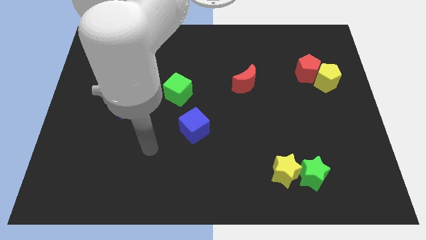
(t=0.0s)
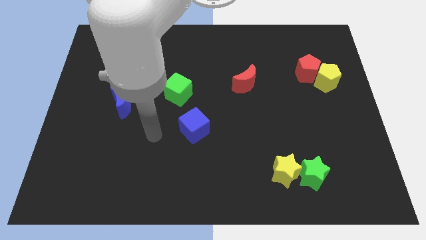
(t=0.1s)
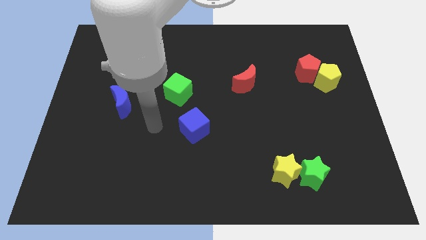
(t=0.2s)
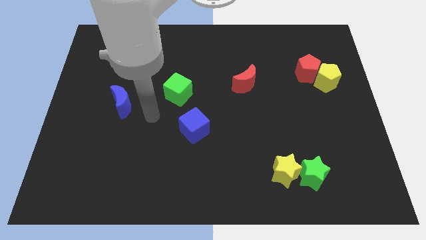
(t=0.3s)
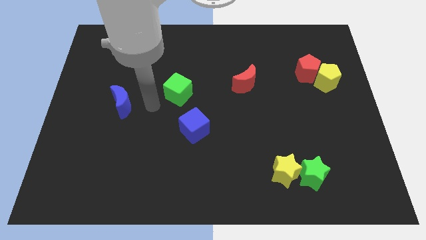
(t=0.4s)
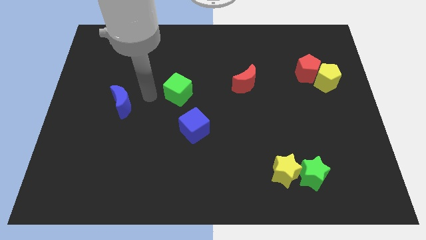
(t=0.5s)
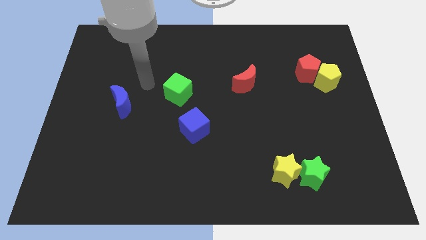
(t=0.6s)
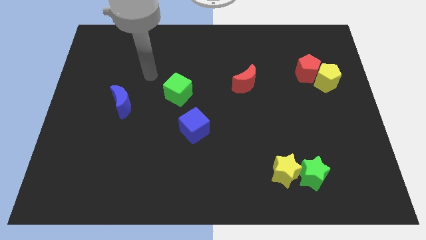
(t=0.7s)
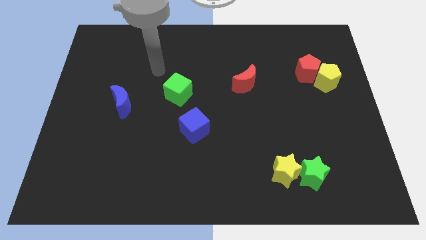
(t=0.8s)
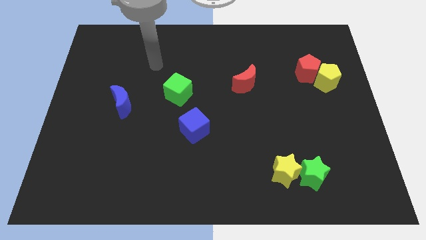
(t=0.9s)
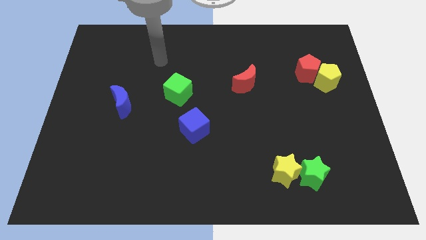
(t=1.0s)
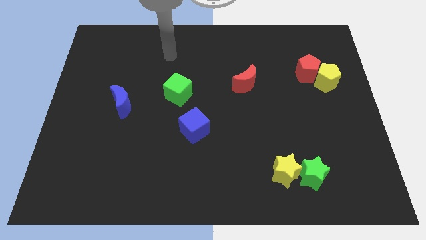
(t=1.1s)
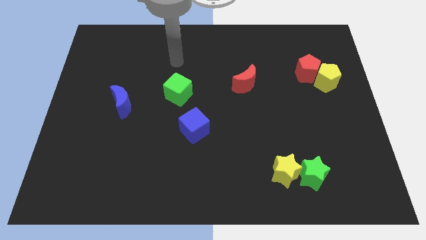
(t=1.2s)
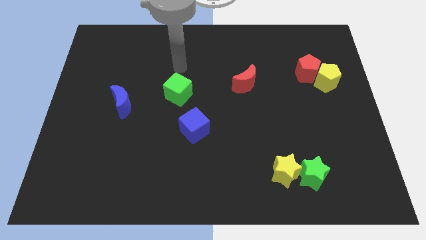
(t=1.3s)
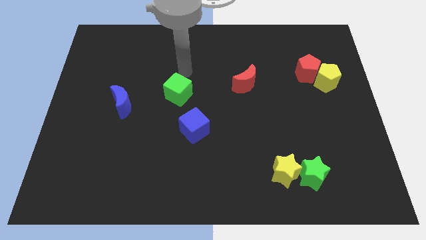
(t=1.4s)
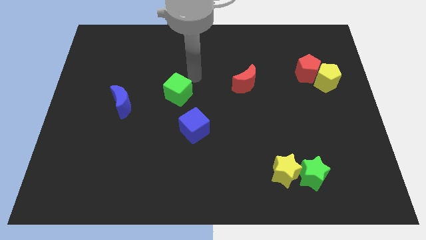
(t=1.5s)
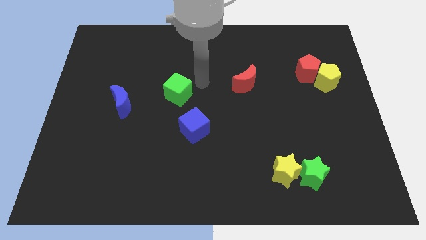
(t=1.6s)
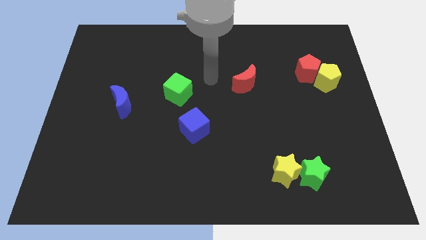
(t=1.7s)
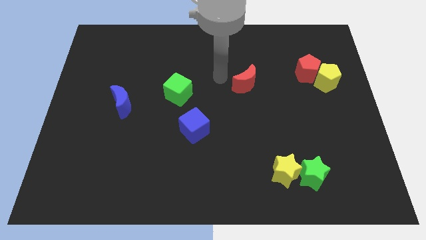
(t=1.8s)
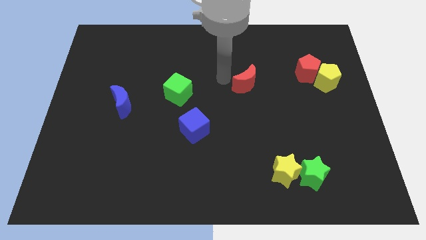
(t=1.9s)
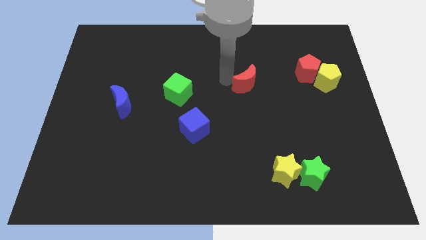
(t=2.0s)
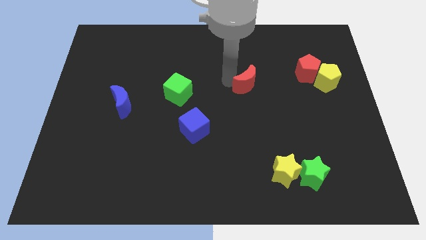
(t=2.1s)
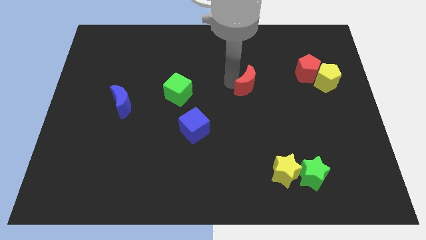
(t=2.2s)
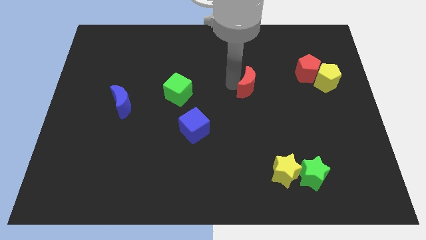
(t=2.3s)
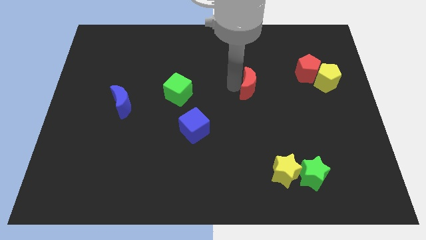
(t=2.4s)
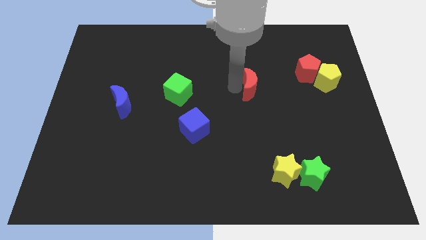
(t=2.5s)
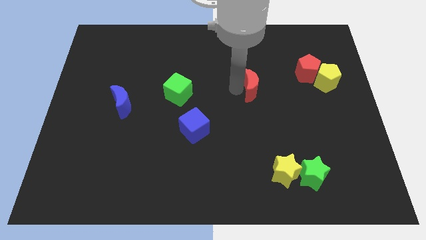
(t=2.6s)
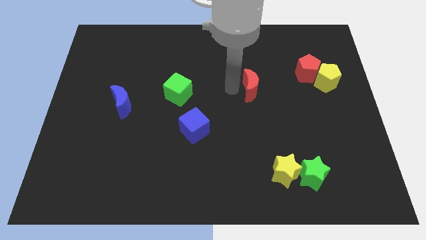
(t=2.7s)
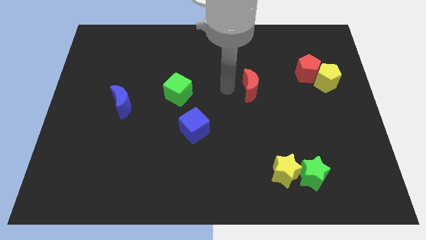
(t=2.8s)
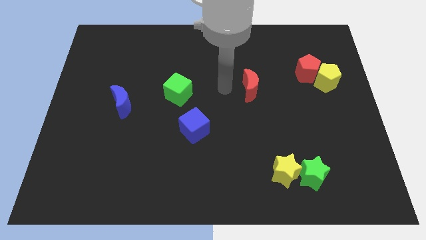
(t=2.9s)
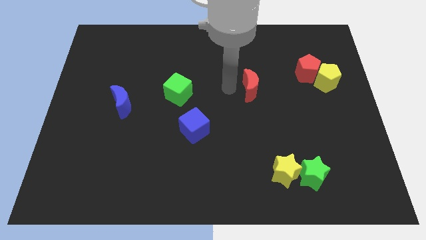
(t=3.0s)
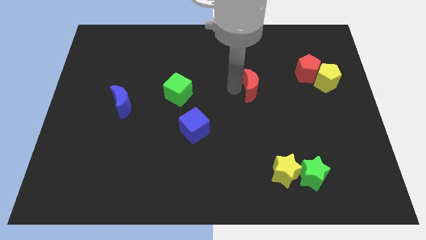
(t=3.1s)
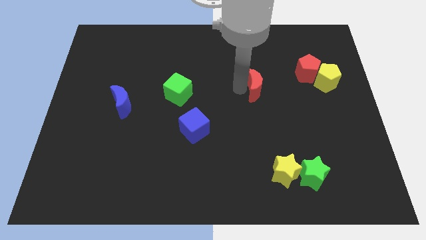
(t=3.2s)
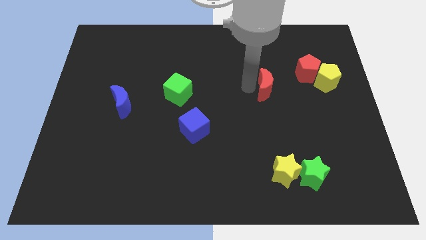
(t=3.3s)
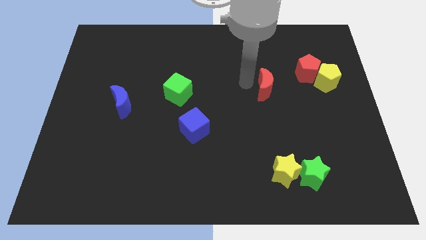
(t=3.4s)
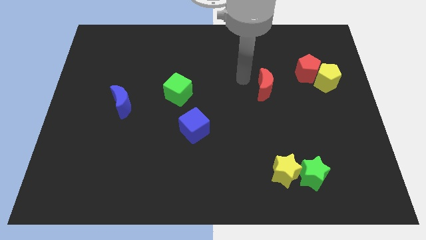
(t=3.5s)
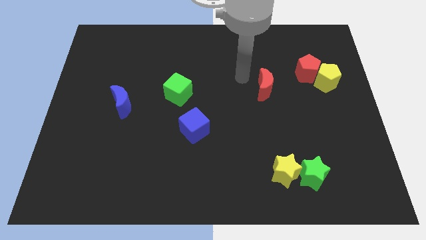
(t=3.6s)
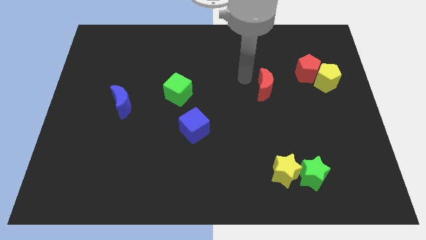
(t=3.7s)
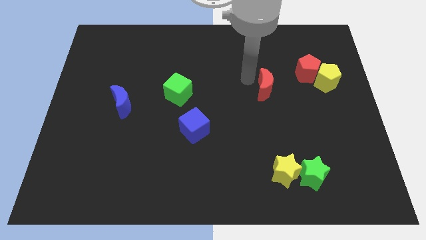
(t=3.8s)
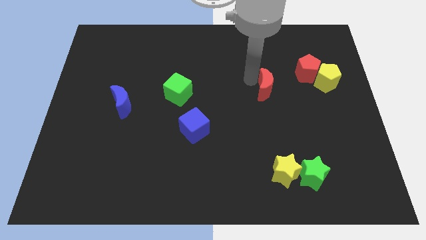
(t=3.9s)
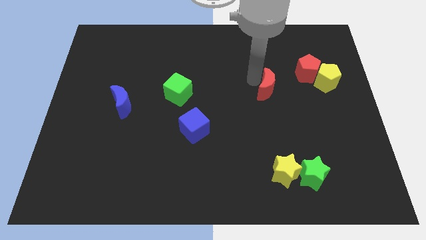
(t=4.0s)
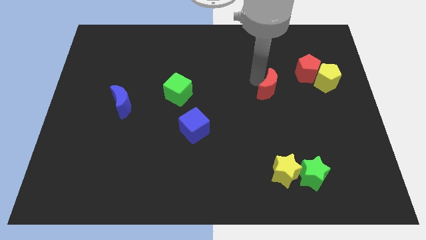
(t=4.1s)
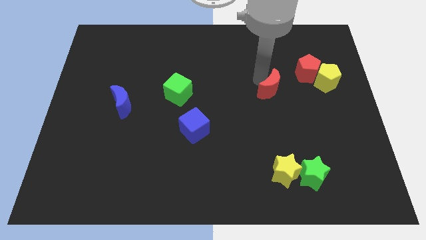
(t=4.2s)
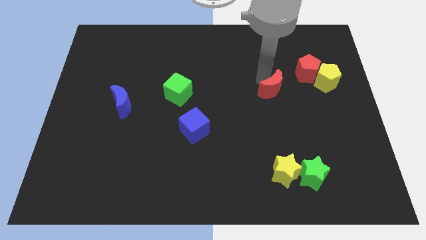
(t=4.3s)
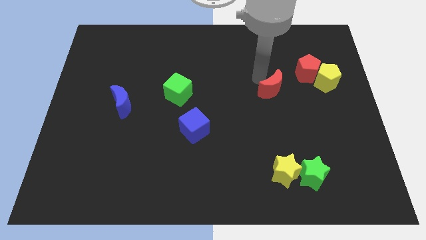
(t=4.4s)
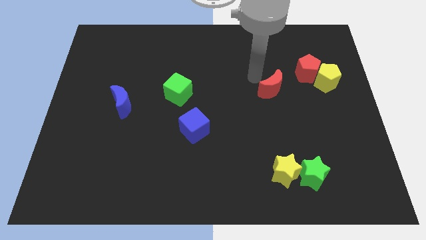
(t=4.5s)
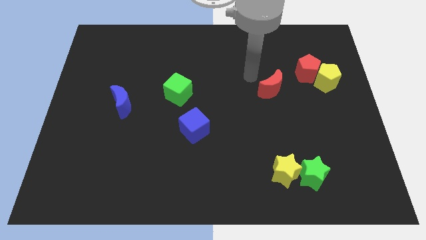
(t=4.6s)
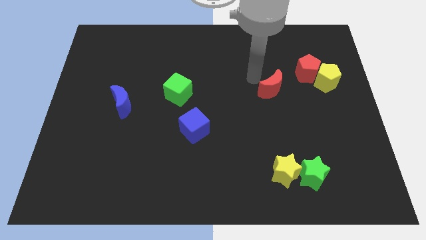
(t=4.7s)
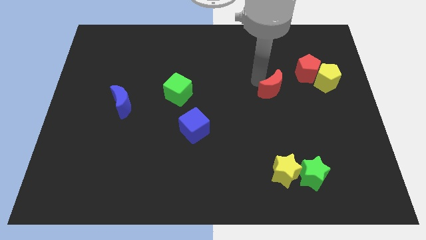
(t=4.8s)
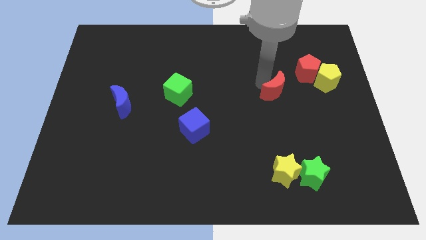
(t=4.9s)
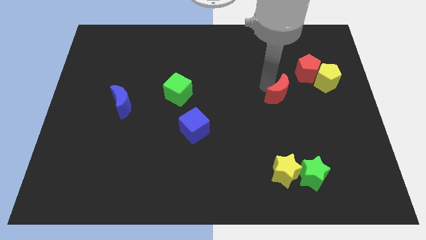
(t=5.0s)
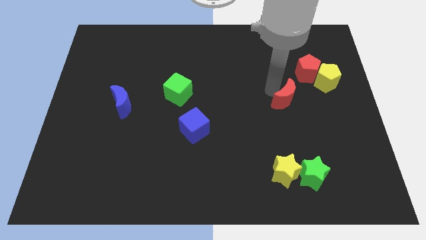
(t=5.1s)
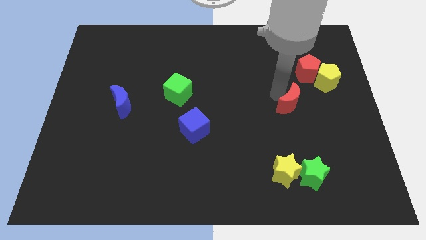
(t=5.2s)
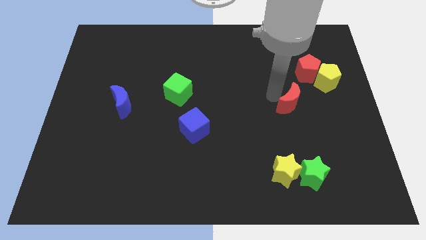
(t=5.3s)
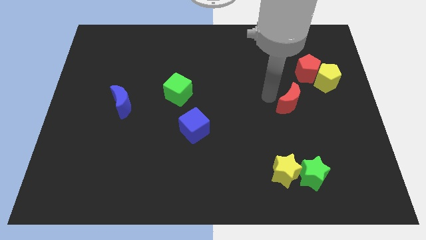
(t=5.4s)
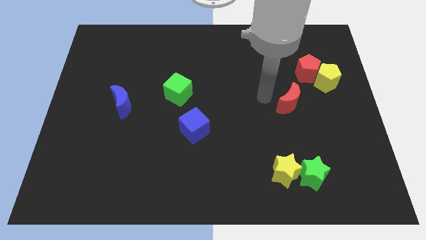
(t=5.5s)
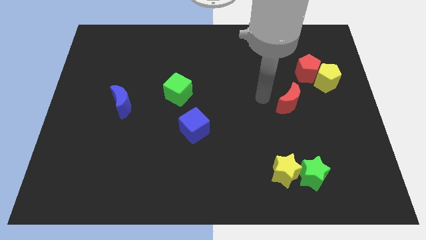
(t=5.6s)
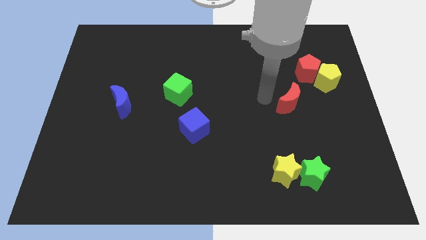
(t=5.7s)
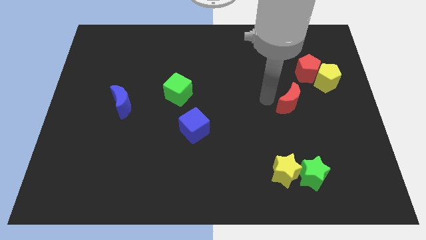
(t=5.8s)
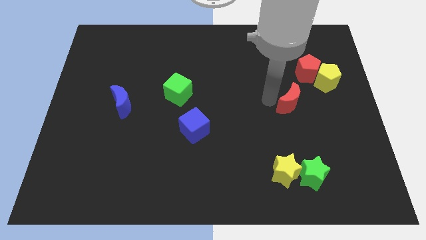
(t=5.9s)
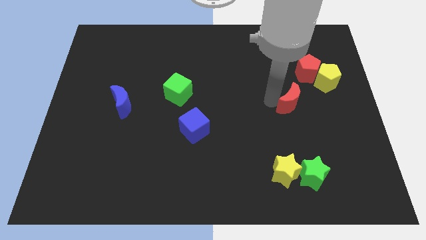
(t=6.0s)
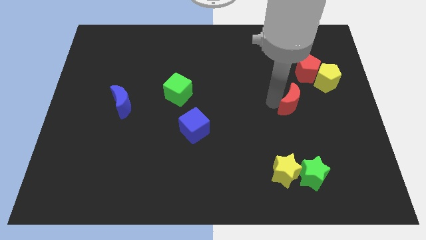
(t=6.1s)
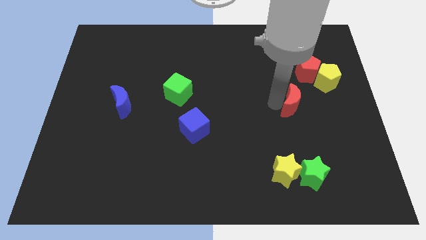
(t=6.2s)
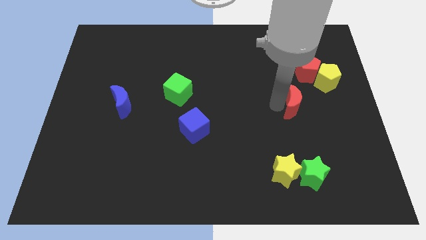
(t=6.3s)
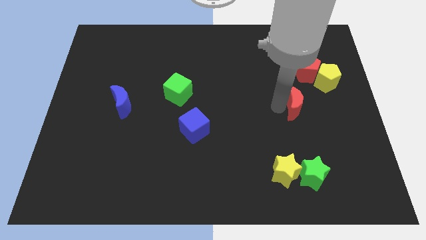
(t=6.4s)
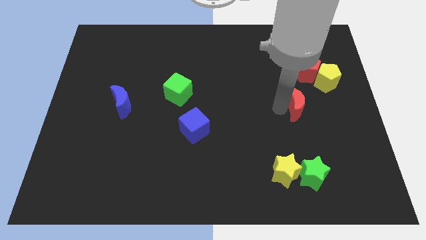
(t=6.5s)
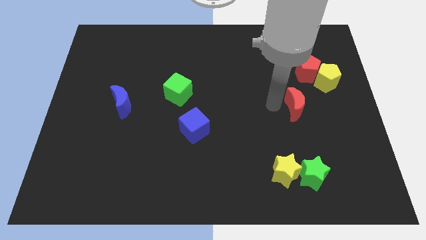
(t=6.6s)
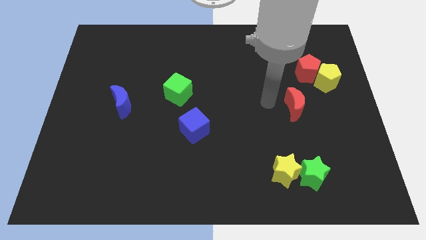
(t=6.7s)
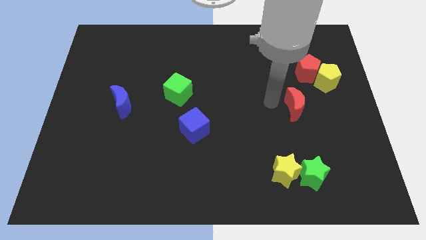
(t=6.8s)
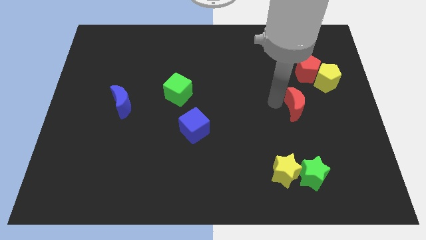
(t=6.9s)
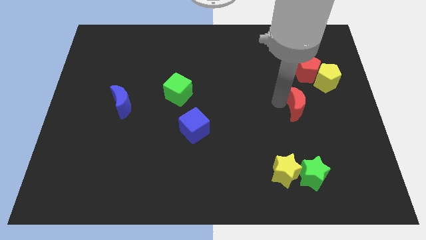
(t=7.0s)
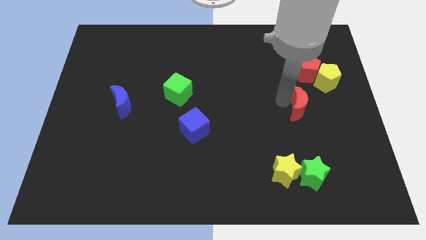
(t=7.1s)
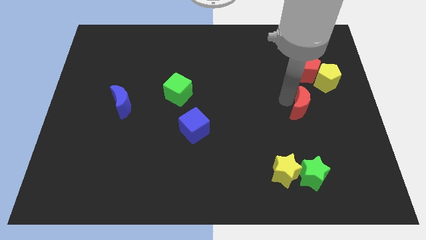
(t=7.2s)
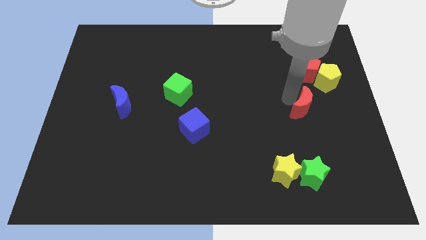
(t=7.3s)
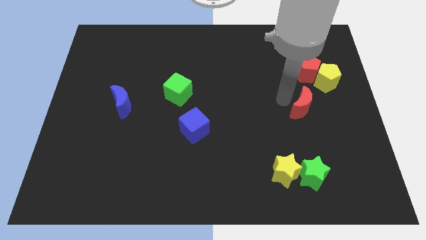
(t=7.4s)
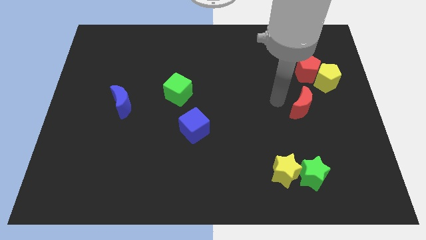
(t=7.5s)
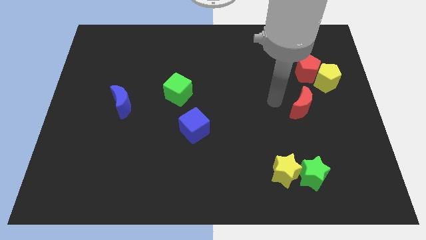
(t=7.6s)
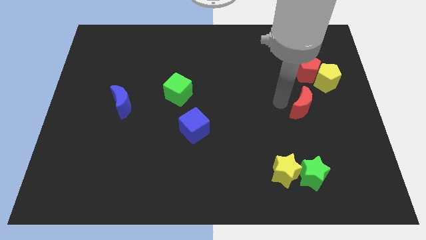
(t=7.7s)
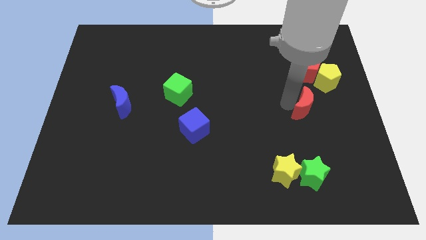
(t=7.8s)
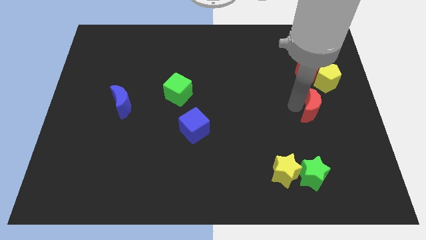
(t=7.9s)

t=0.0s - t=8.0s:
slide the red moon to the bottom of the yellow pentagon
